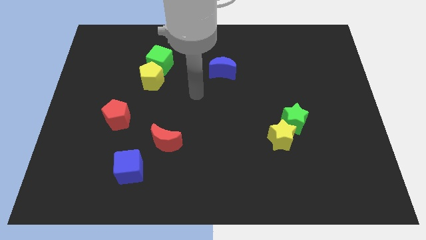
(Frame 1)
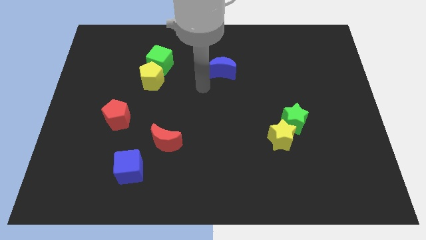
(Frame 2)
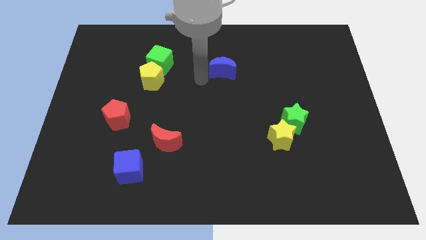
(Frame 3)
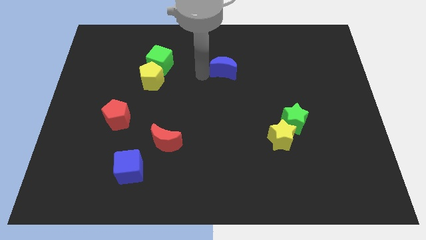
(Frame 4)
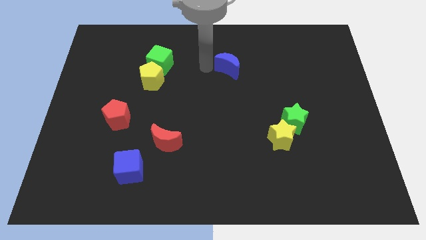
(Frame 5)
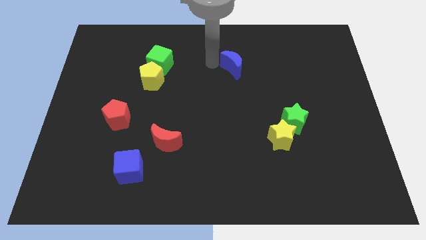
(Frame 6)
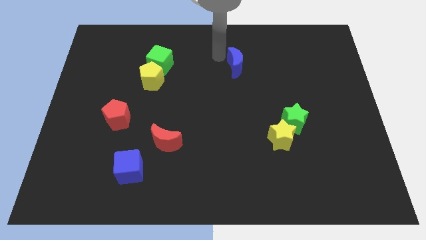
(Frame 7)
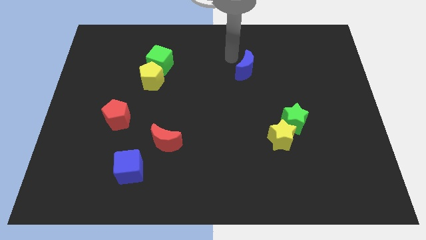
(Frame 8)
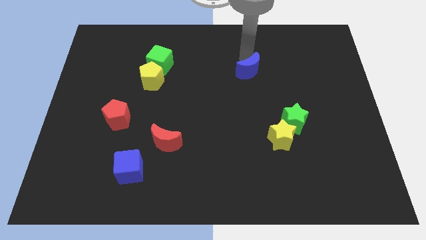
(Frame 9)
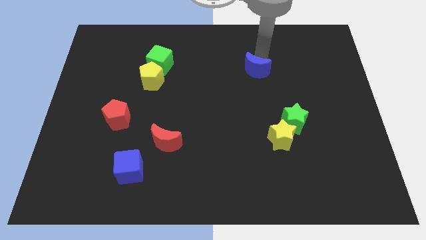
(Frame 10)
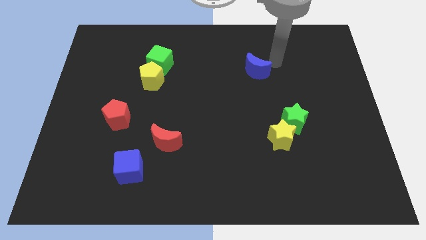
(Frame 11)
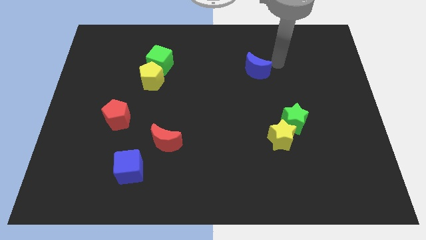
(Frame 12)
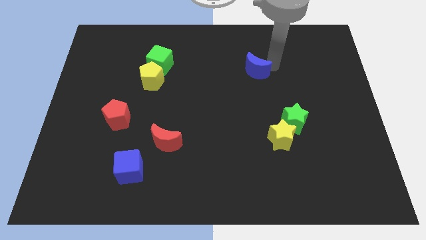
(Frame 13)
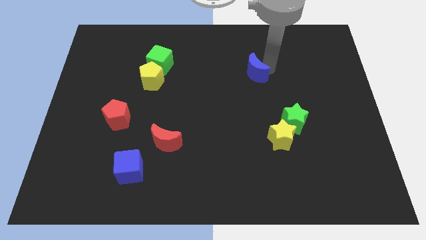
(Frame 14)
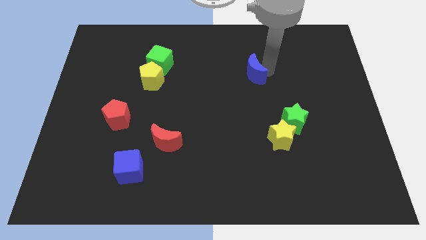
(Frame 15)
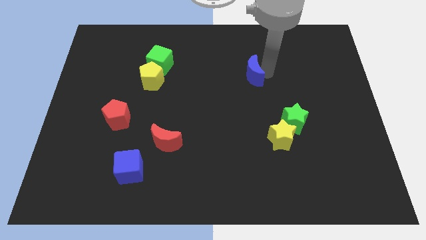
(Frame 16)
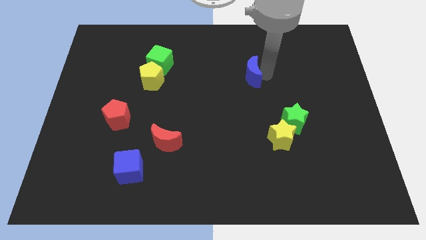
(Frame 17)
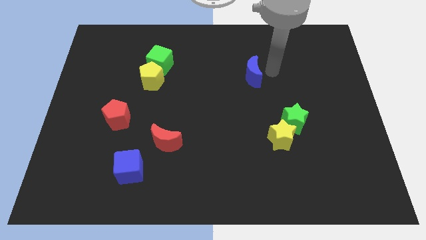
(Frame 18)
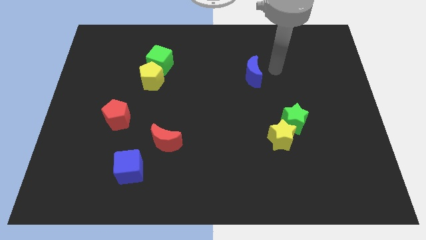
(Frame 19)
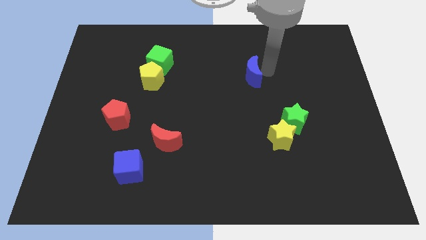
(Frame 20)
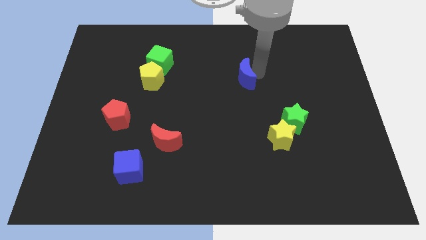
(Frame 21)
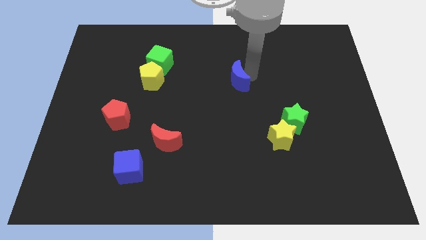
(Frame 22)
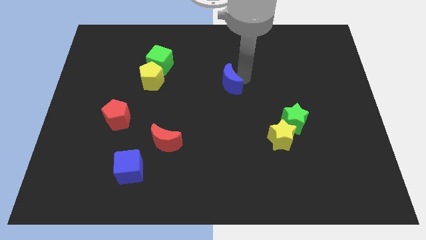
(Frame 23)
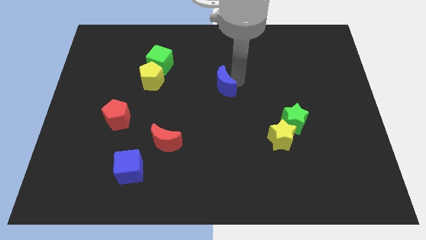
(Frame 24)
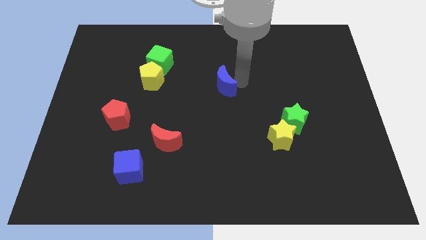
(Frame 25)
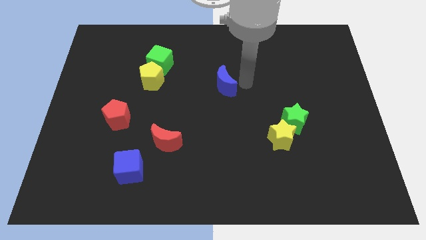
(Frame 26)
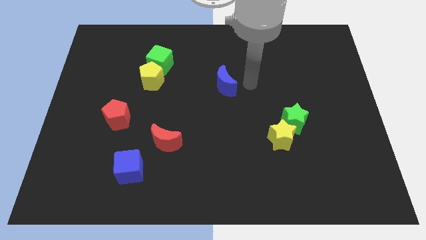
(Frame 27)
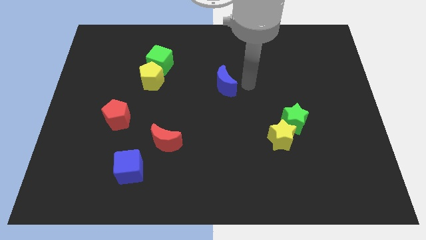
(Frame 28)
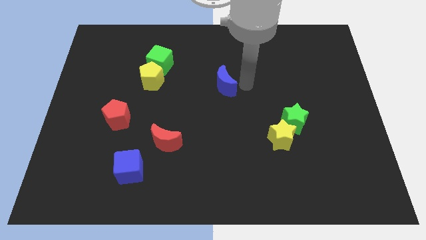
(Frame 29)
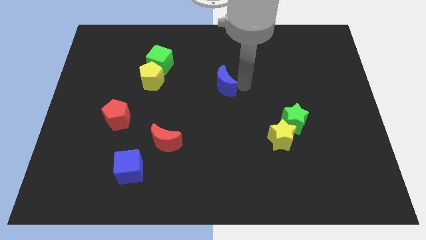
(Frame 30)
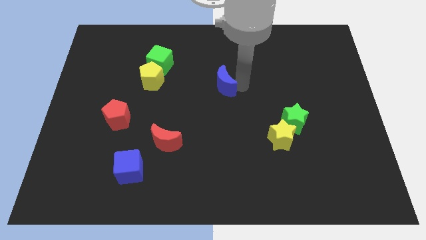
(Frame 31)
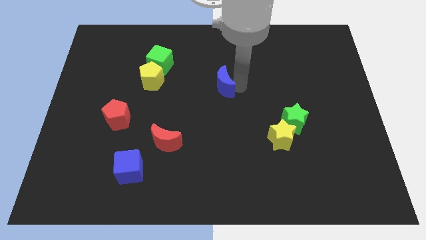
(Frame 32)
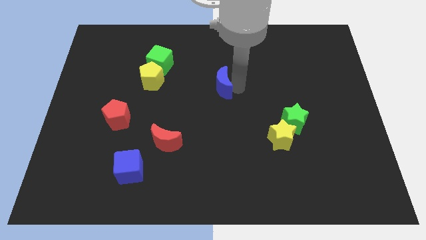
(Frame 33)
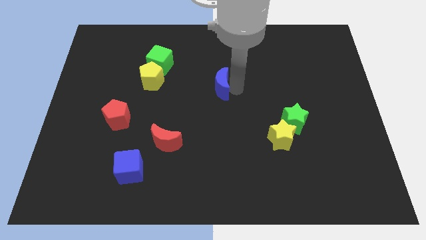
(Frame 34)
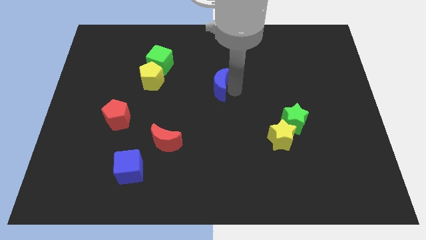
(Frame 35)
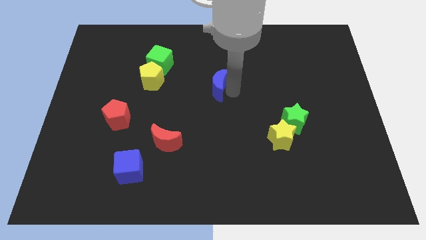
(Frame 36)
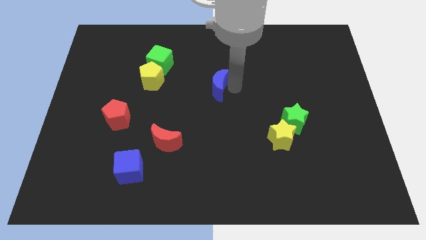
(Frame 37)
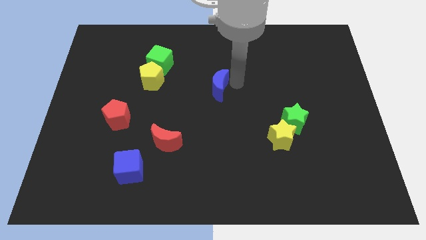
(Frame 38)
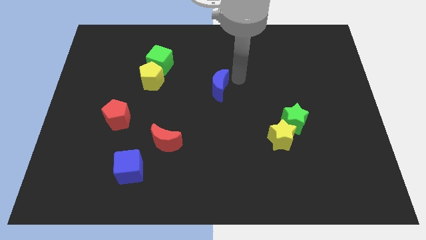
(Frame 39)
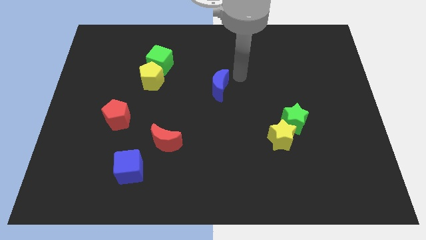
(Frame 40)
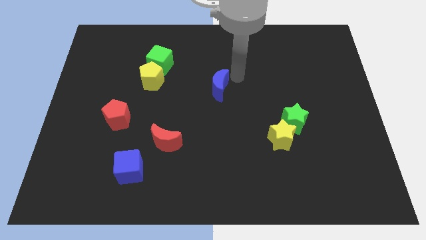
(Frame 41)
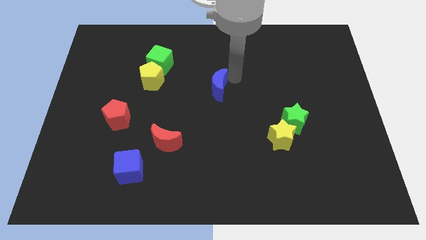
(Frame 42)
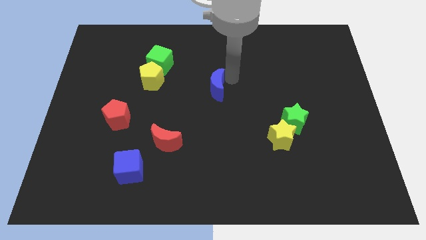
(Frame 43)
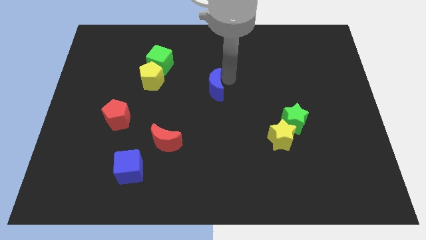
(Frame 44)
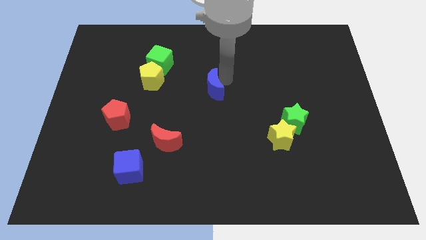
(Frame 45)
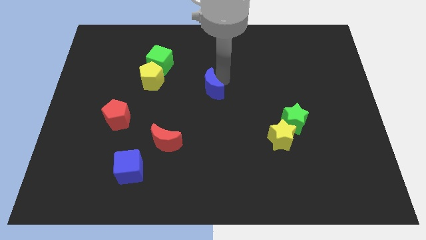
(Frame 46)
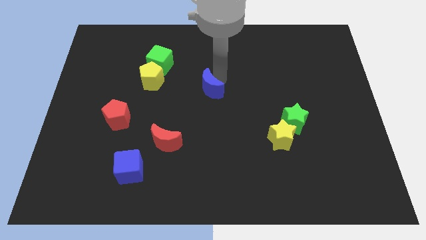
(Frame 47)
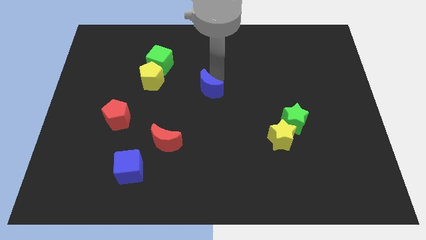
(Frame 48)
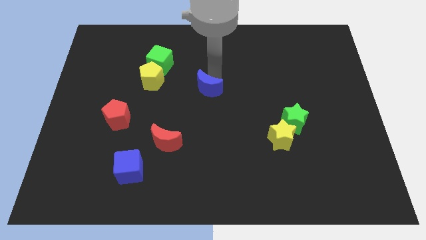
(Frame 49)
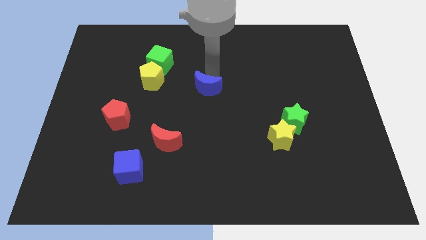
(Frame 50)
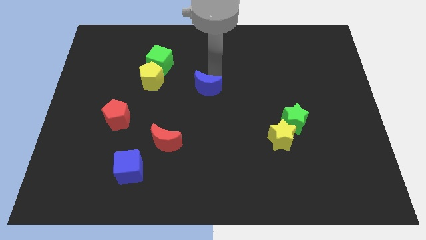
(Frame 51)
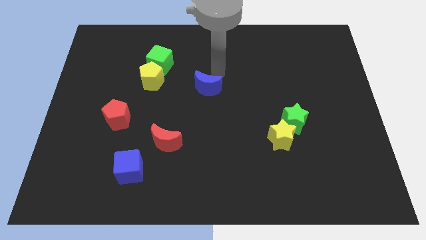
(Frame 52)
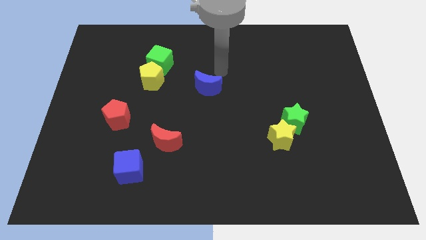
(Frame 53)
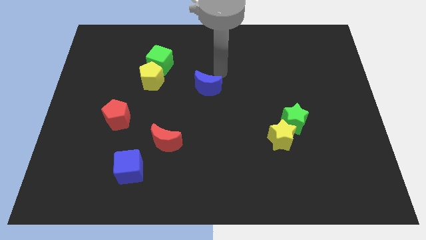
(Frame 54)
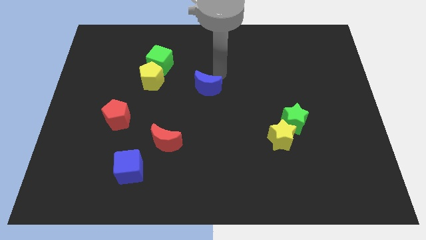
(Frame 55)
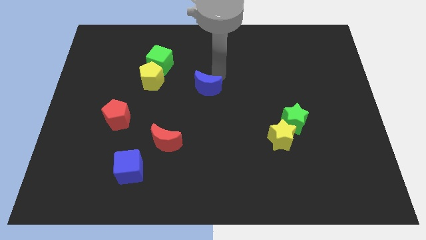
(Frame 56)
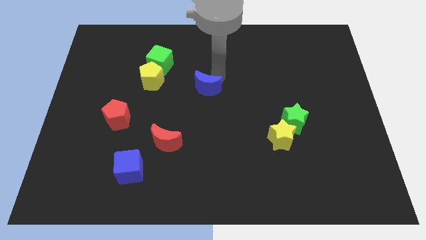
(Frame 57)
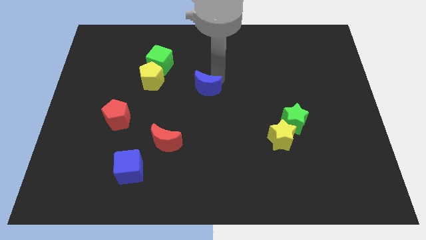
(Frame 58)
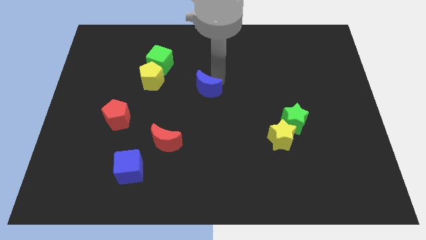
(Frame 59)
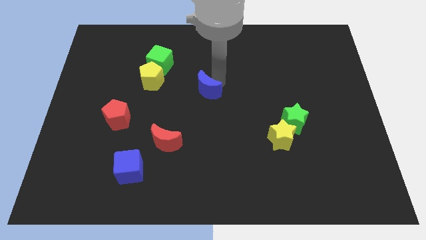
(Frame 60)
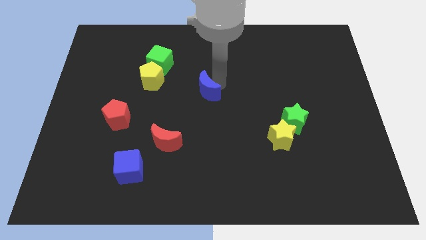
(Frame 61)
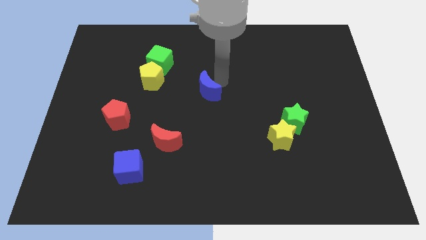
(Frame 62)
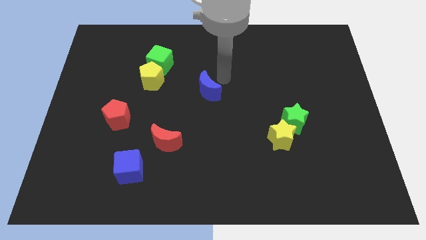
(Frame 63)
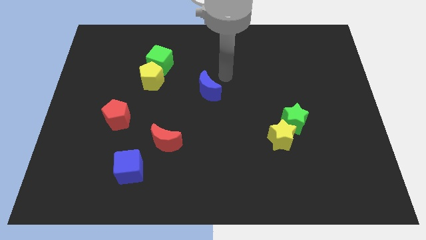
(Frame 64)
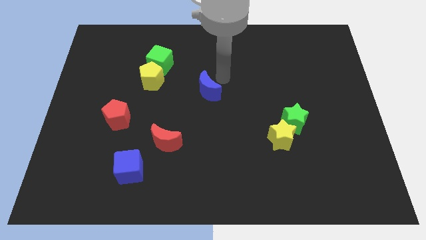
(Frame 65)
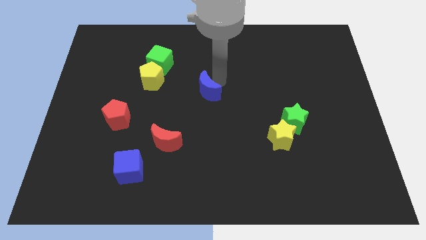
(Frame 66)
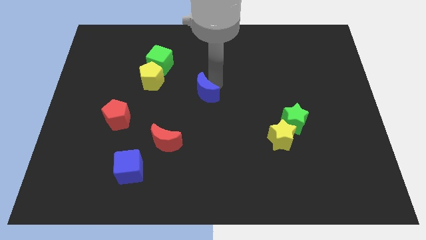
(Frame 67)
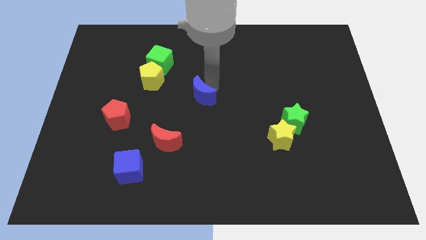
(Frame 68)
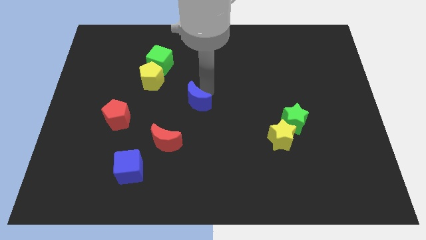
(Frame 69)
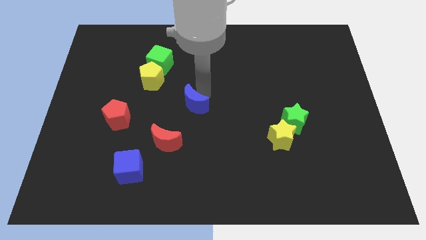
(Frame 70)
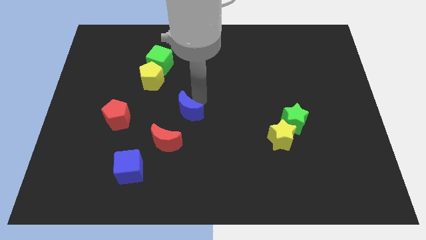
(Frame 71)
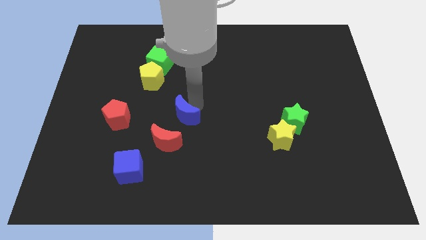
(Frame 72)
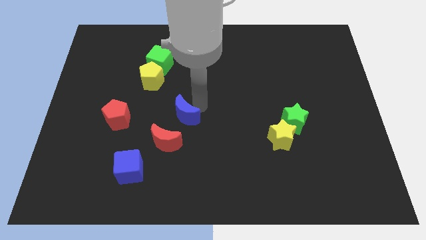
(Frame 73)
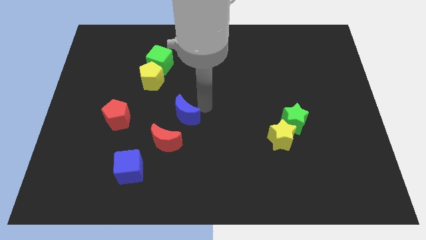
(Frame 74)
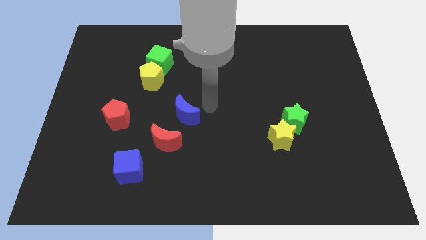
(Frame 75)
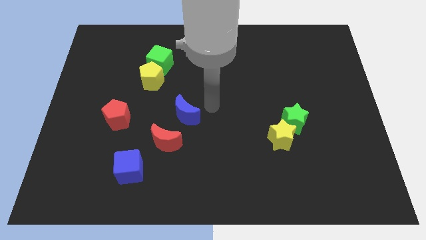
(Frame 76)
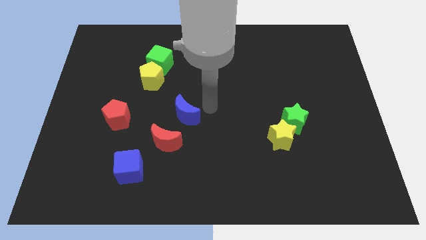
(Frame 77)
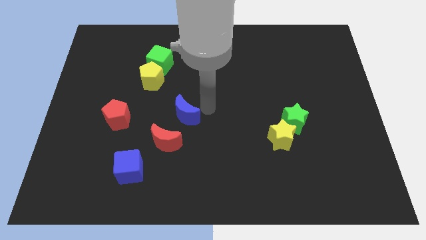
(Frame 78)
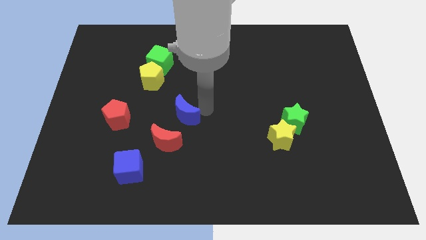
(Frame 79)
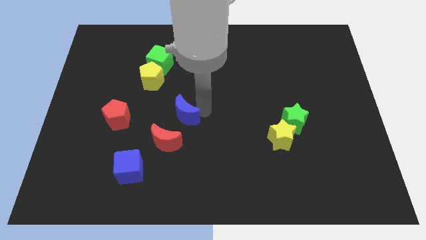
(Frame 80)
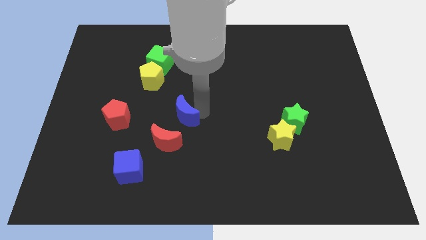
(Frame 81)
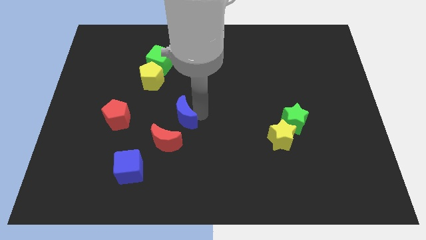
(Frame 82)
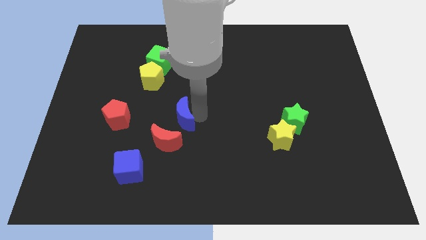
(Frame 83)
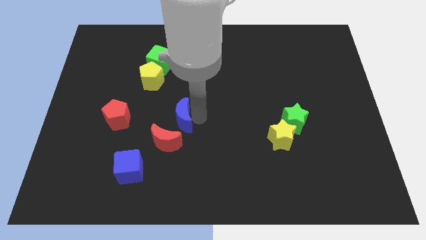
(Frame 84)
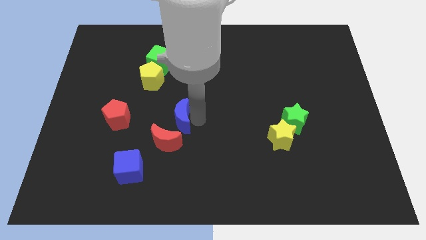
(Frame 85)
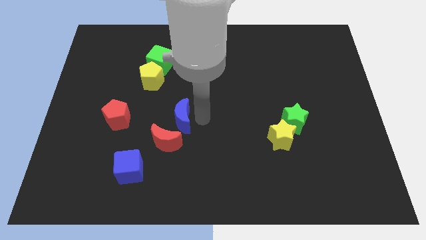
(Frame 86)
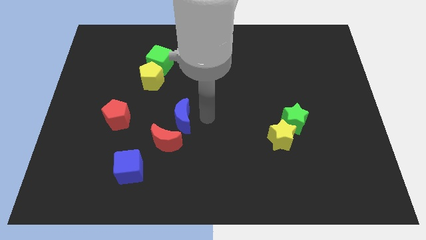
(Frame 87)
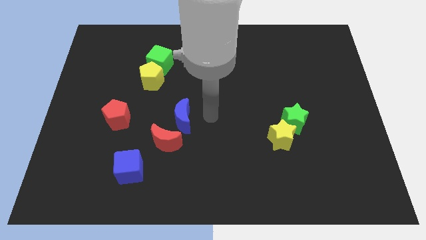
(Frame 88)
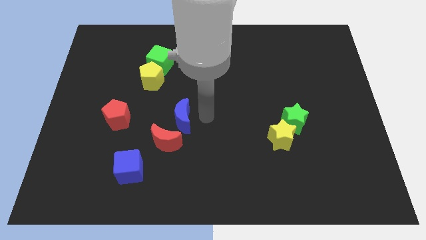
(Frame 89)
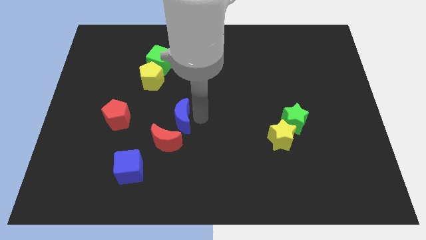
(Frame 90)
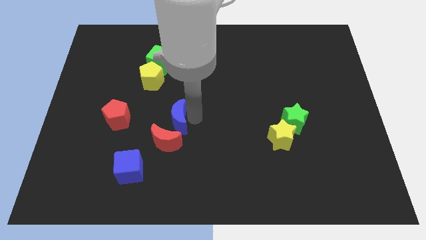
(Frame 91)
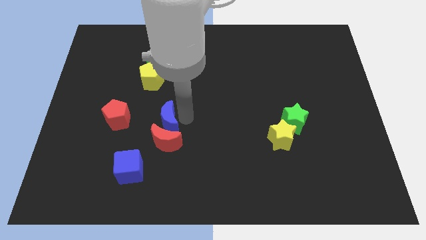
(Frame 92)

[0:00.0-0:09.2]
slide the blue moon down and to the left diagonally
